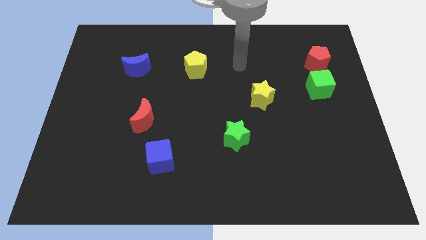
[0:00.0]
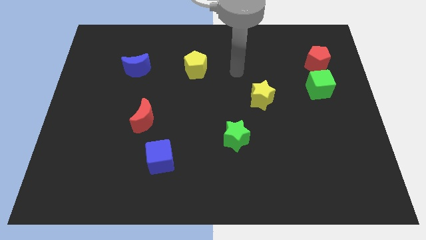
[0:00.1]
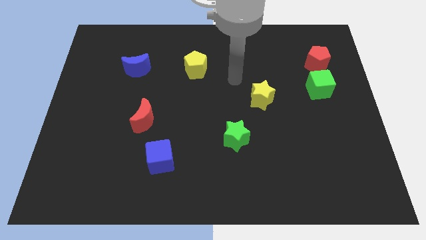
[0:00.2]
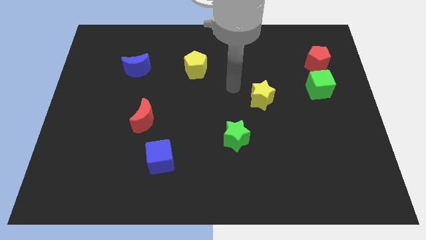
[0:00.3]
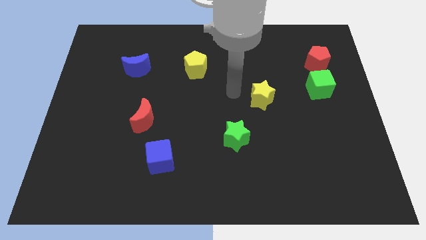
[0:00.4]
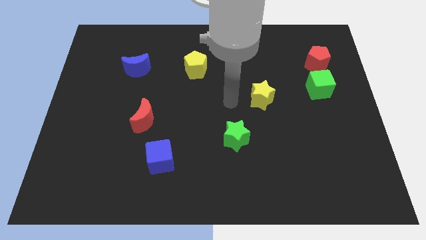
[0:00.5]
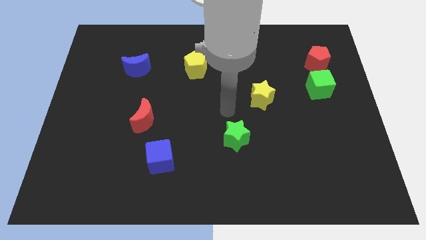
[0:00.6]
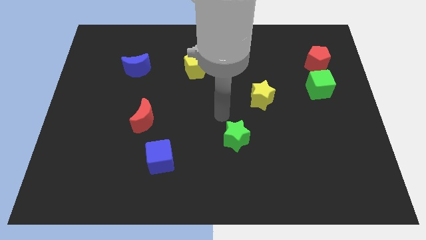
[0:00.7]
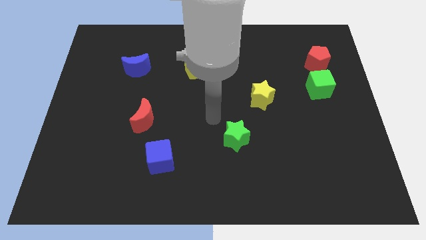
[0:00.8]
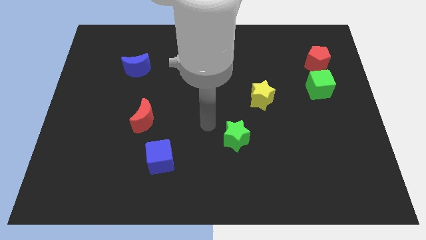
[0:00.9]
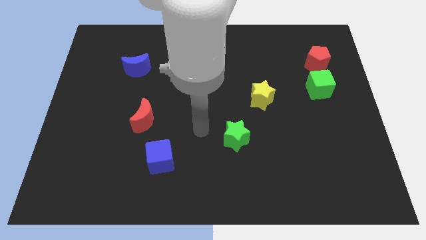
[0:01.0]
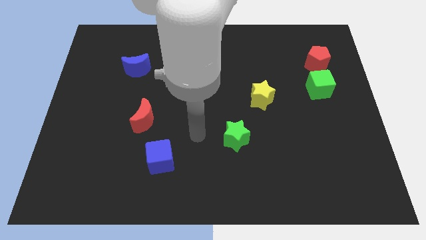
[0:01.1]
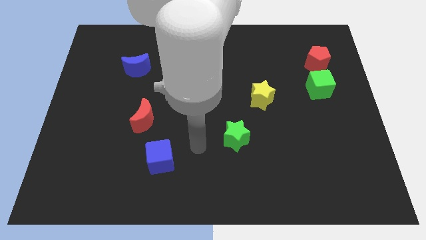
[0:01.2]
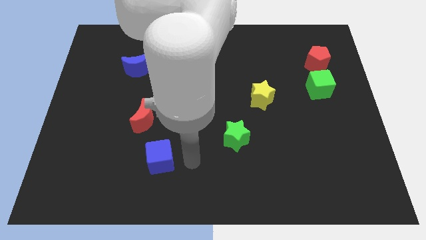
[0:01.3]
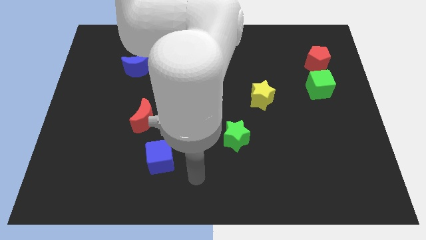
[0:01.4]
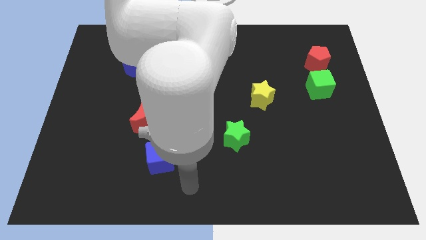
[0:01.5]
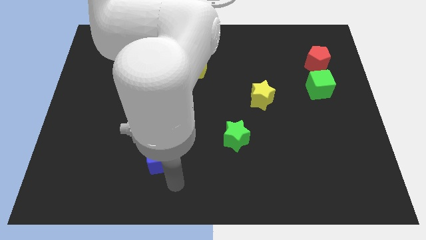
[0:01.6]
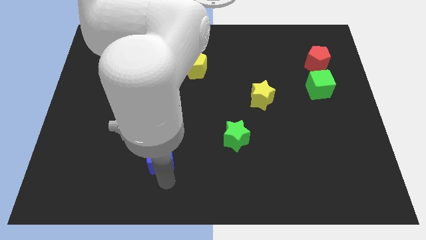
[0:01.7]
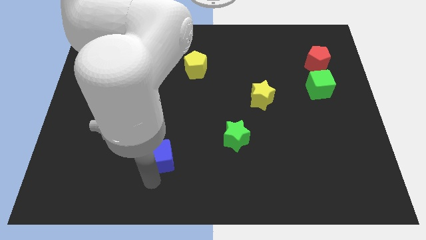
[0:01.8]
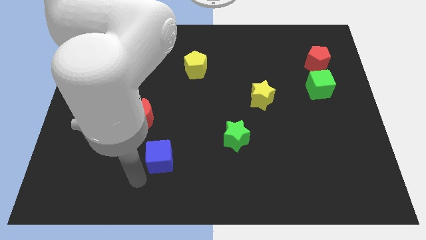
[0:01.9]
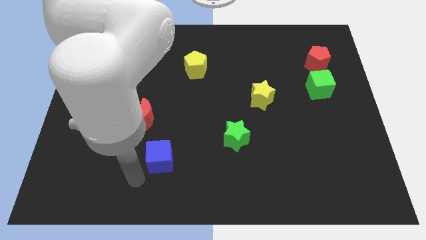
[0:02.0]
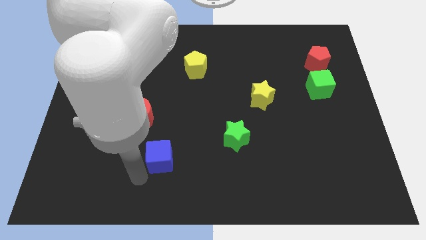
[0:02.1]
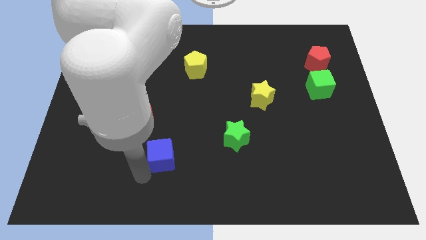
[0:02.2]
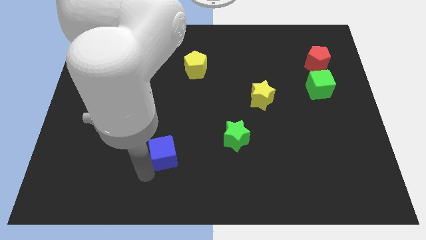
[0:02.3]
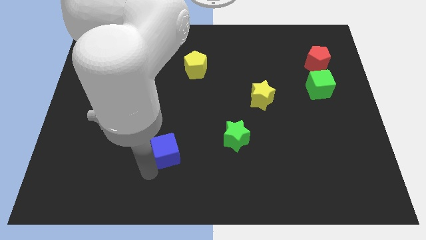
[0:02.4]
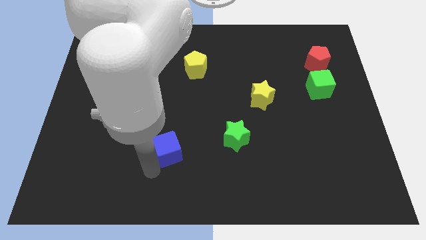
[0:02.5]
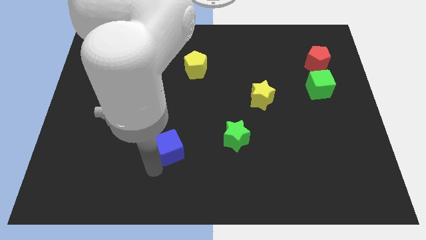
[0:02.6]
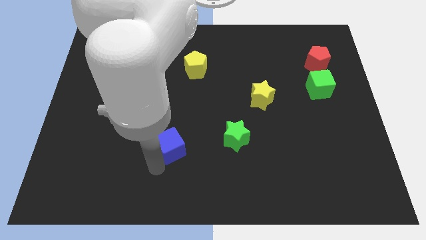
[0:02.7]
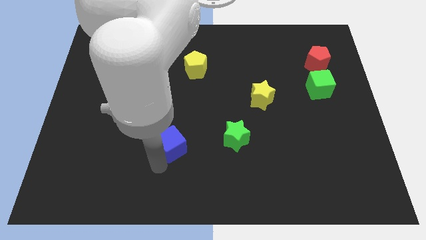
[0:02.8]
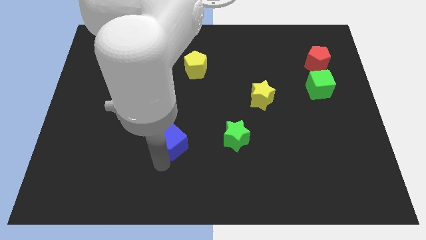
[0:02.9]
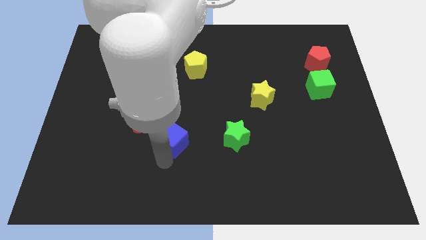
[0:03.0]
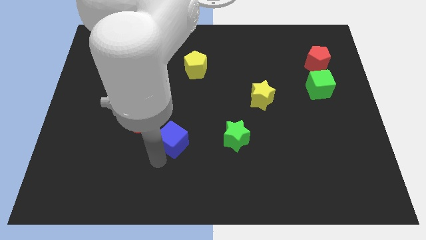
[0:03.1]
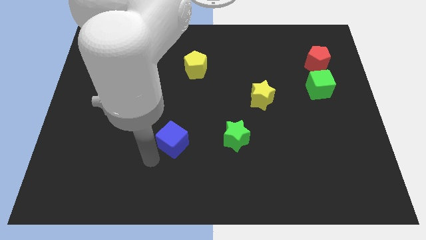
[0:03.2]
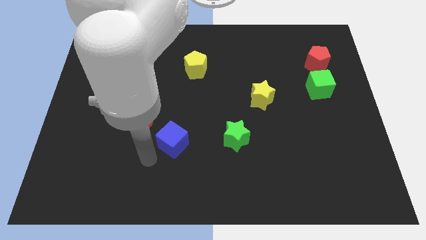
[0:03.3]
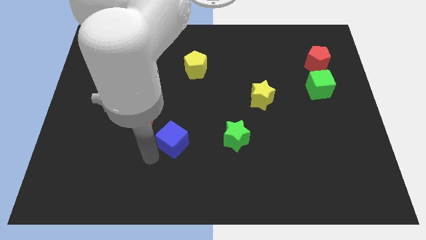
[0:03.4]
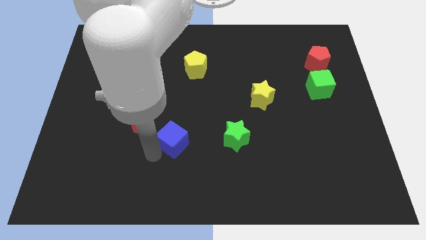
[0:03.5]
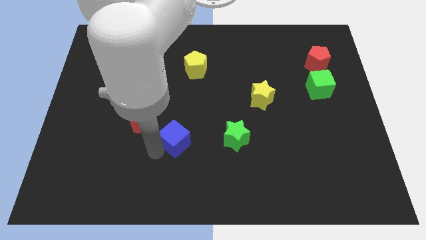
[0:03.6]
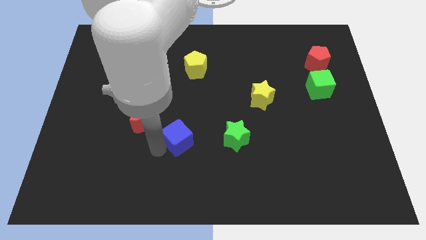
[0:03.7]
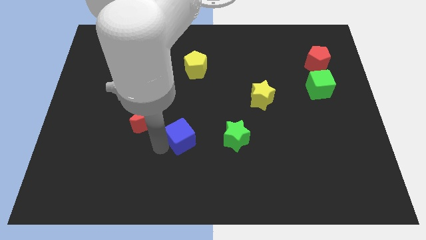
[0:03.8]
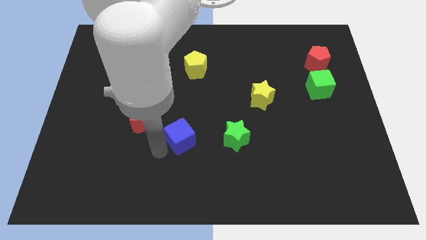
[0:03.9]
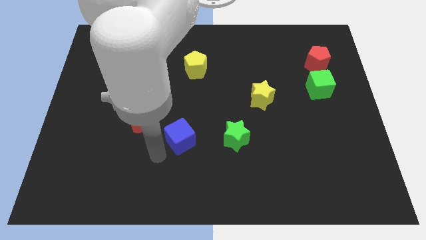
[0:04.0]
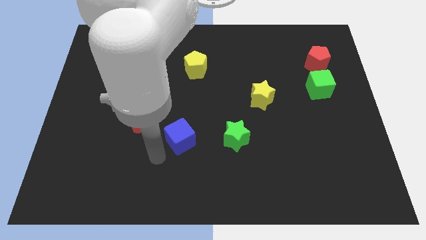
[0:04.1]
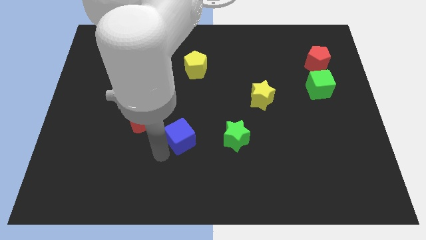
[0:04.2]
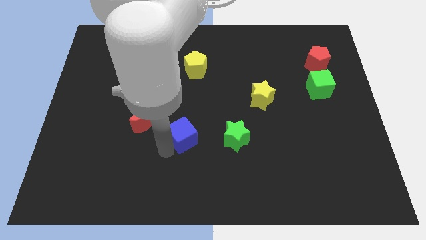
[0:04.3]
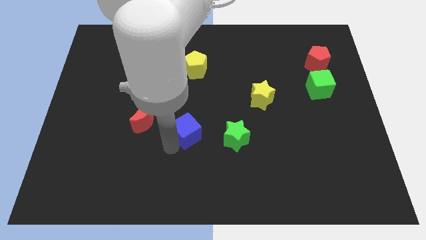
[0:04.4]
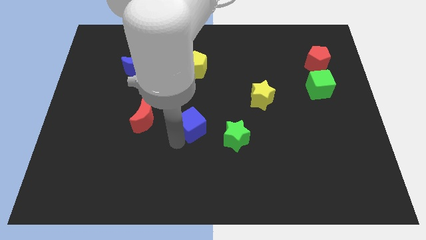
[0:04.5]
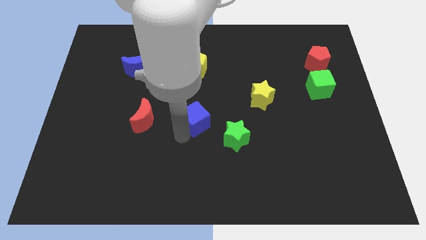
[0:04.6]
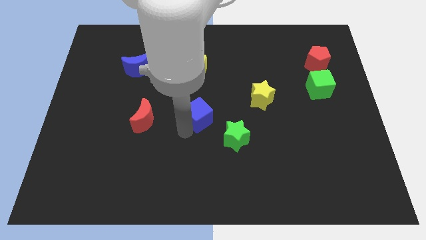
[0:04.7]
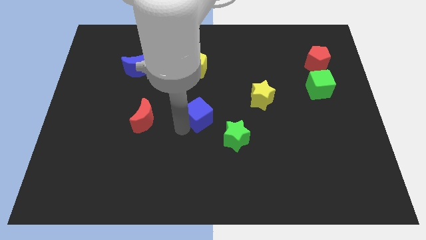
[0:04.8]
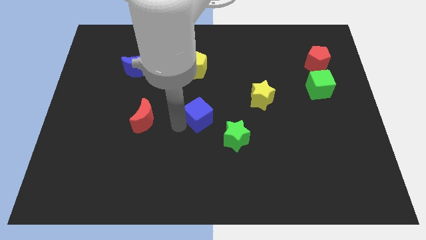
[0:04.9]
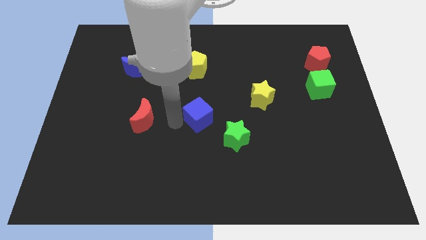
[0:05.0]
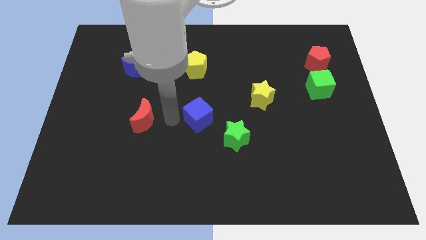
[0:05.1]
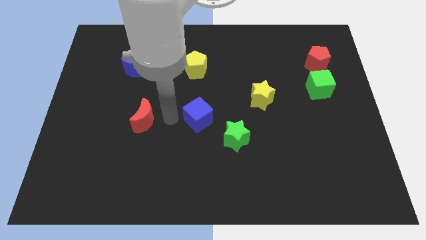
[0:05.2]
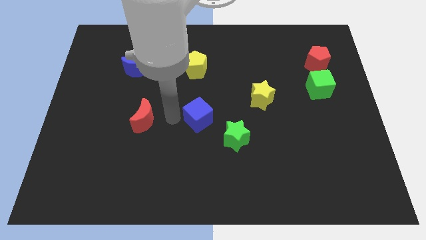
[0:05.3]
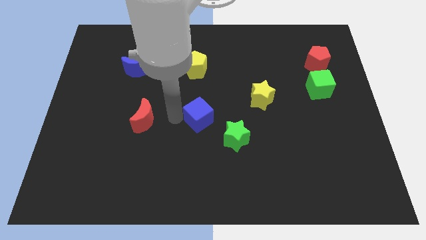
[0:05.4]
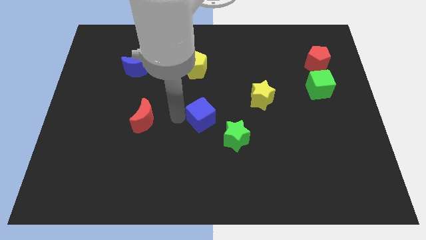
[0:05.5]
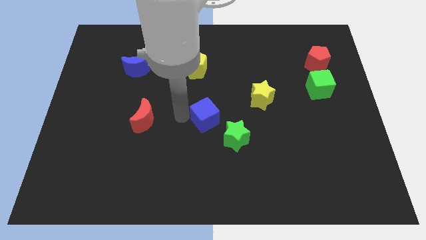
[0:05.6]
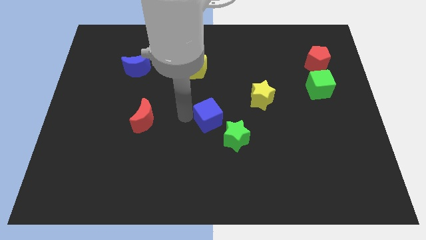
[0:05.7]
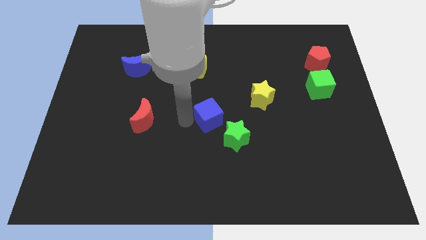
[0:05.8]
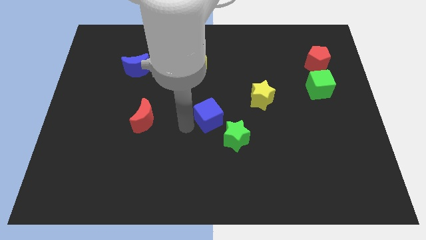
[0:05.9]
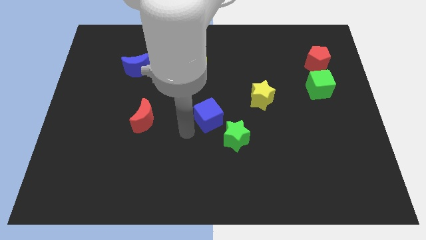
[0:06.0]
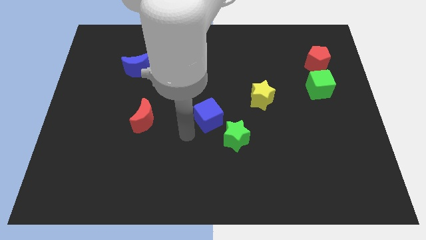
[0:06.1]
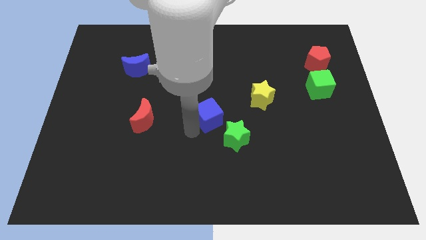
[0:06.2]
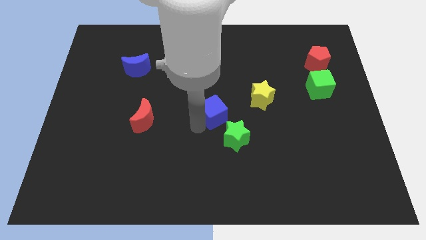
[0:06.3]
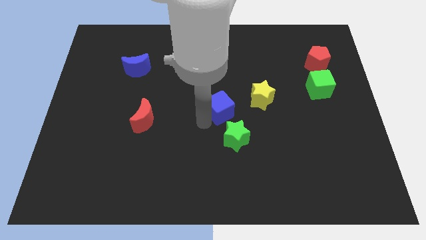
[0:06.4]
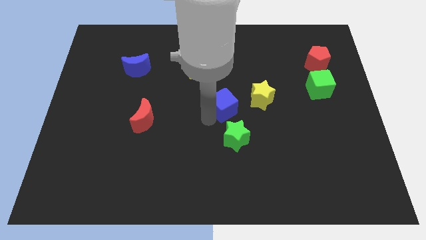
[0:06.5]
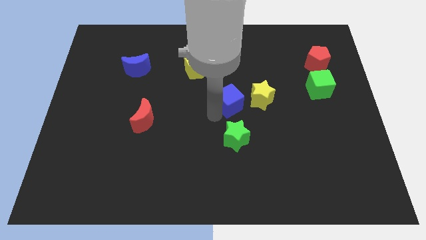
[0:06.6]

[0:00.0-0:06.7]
move the blue cube diagonally upwards and right

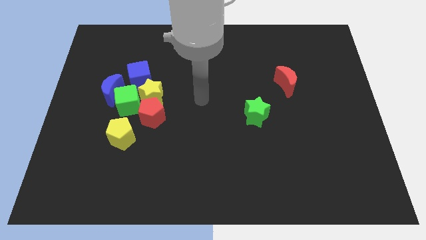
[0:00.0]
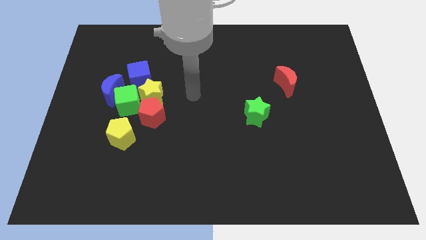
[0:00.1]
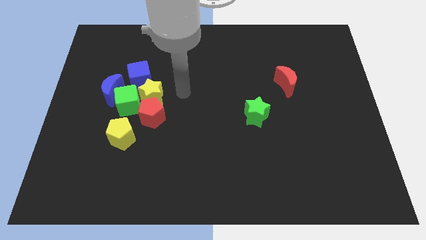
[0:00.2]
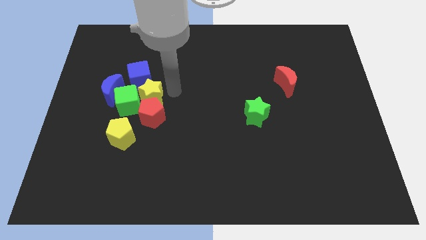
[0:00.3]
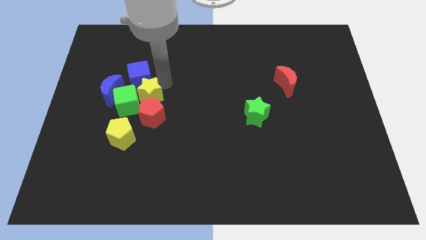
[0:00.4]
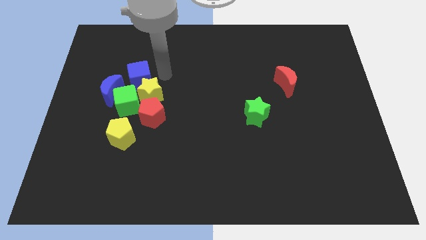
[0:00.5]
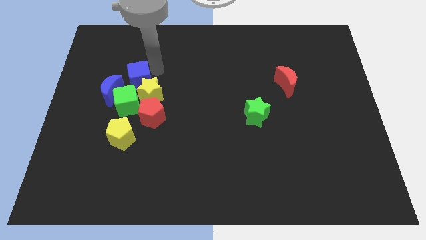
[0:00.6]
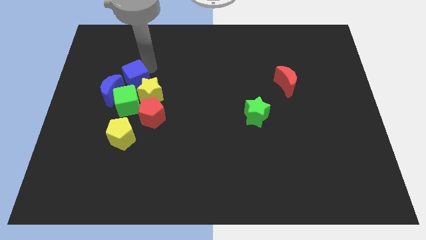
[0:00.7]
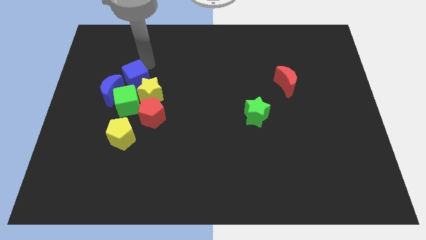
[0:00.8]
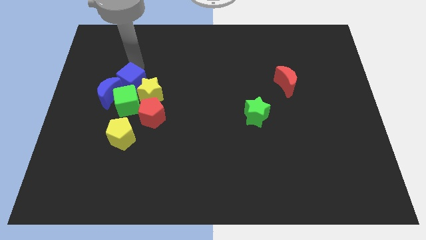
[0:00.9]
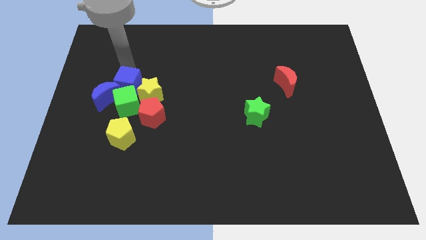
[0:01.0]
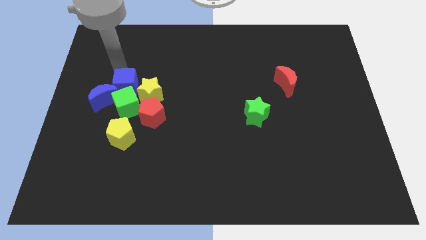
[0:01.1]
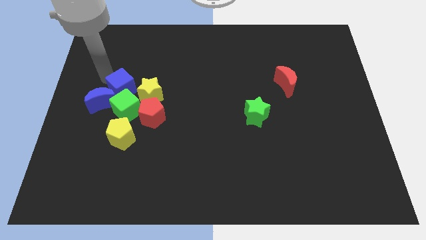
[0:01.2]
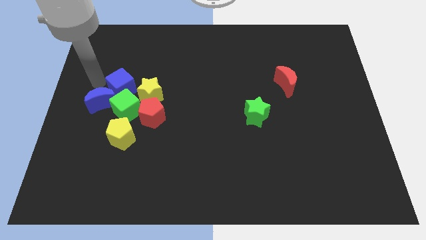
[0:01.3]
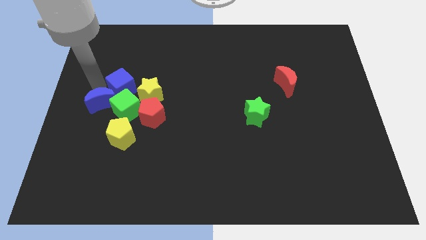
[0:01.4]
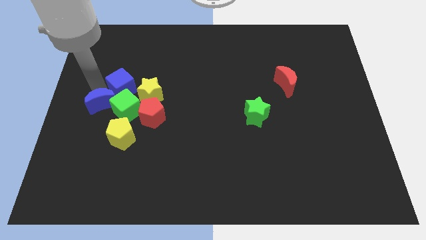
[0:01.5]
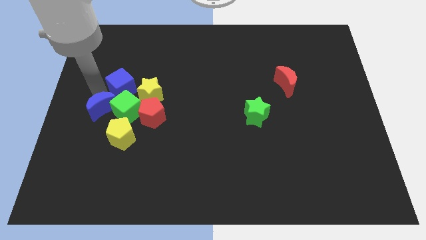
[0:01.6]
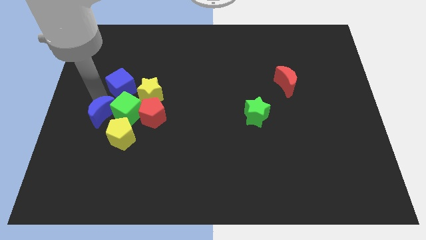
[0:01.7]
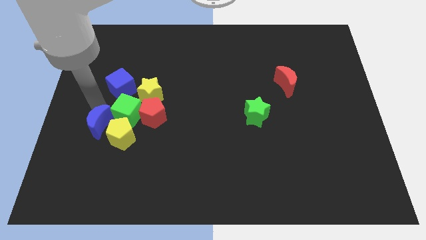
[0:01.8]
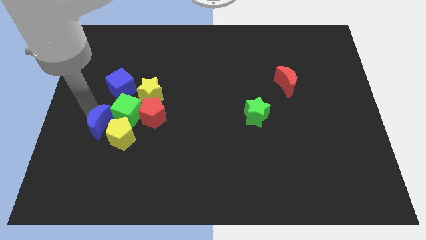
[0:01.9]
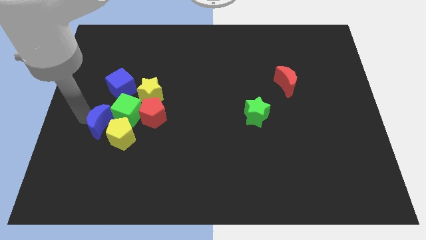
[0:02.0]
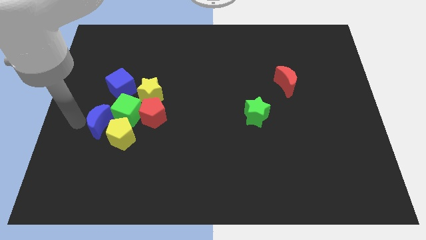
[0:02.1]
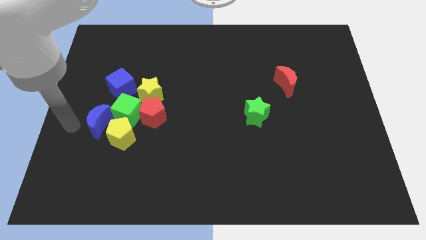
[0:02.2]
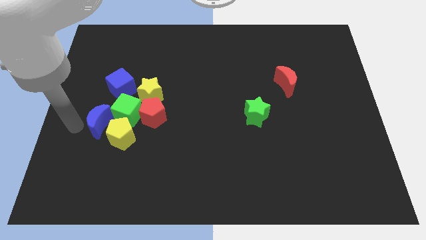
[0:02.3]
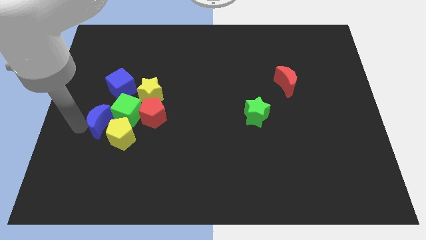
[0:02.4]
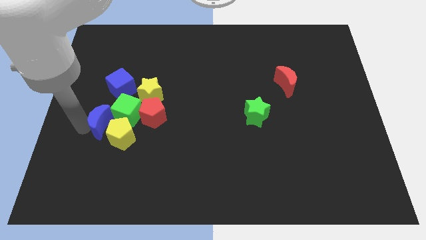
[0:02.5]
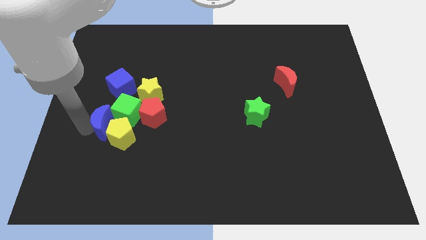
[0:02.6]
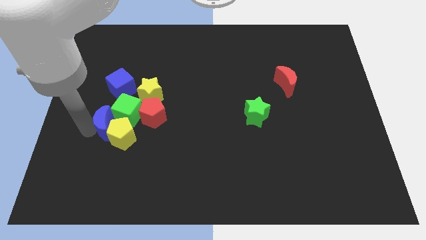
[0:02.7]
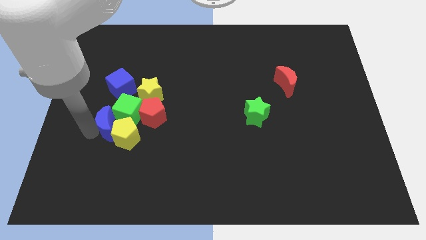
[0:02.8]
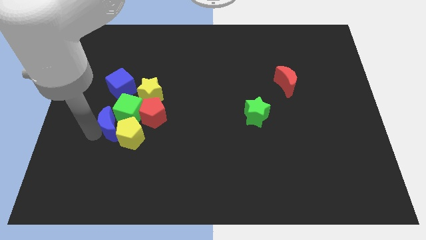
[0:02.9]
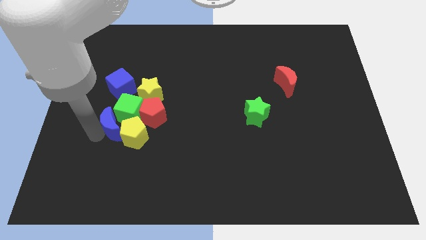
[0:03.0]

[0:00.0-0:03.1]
slightly push the blue moon diagonally down and right
